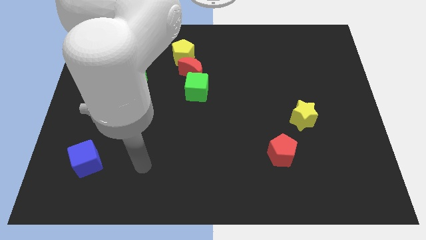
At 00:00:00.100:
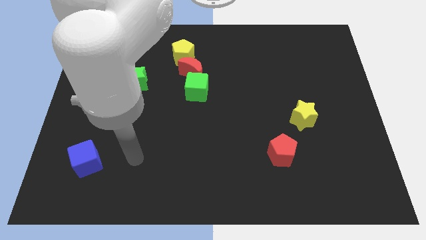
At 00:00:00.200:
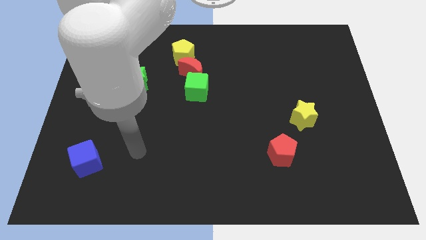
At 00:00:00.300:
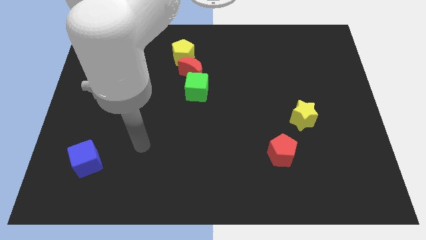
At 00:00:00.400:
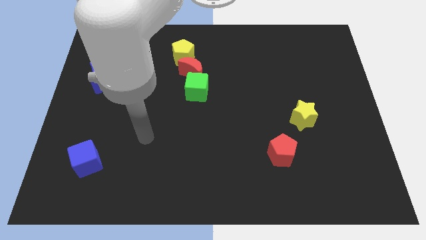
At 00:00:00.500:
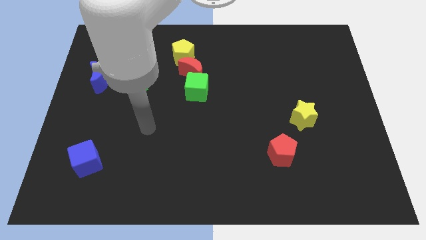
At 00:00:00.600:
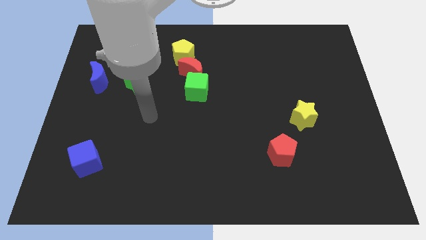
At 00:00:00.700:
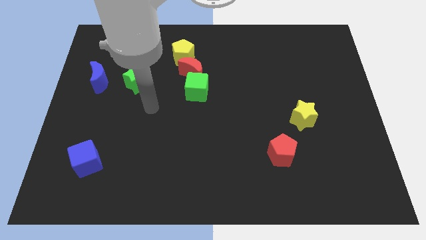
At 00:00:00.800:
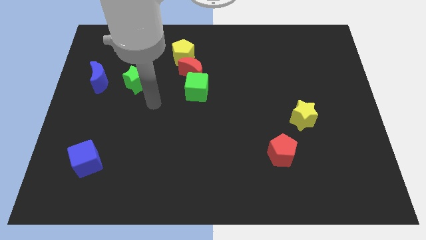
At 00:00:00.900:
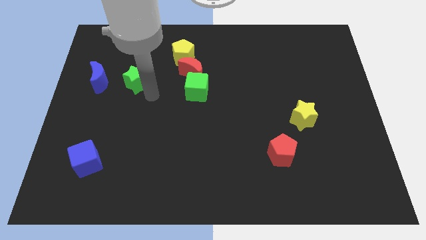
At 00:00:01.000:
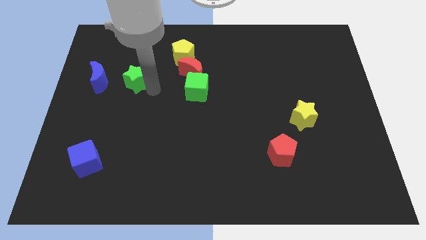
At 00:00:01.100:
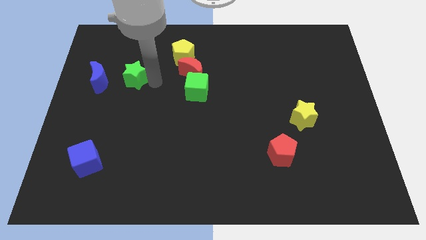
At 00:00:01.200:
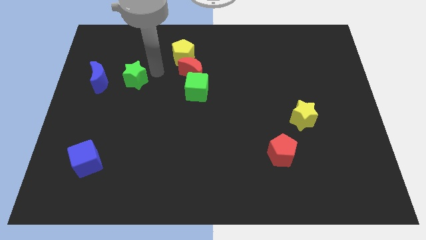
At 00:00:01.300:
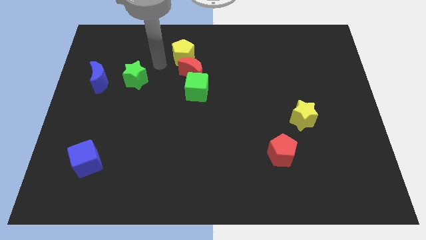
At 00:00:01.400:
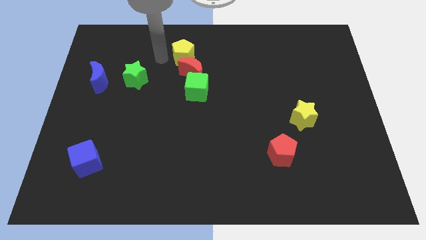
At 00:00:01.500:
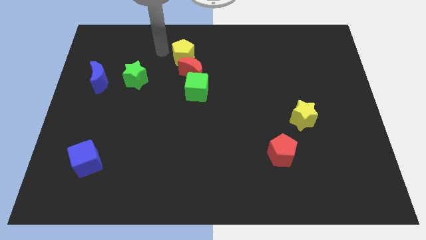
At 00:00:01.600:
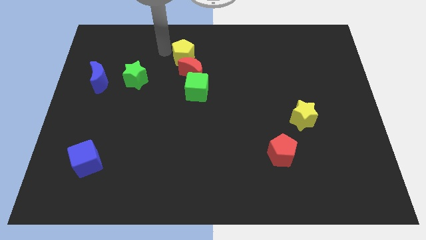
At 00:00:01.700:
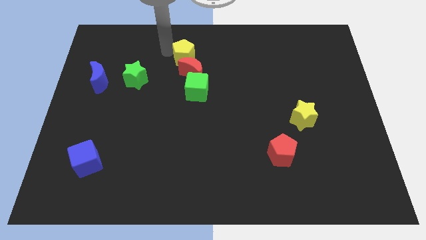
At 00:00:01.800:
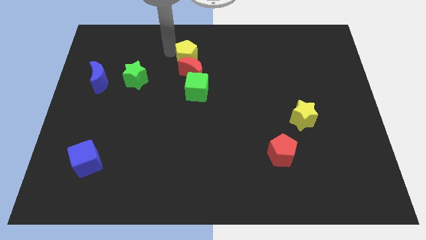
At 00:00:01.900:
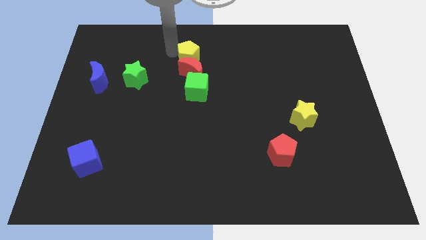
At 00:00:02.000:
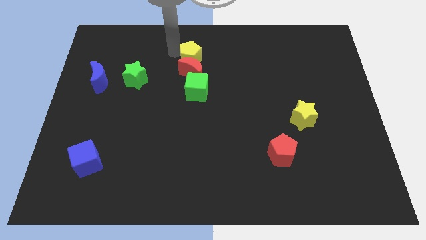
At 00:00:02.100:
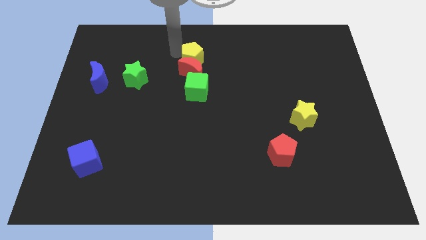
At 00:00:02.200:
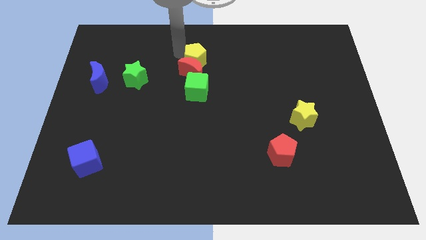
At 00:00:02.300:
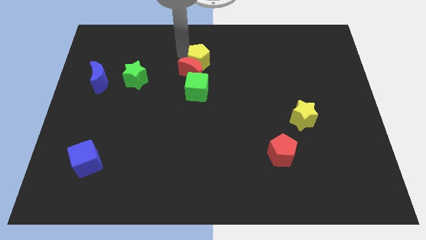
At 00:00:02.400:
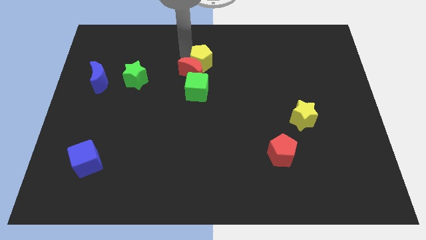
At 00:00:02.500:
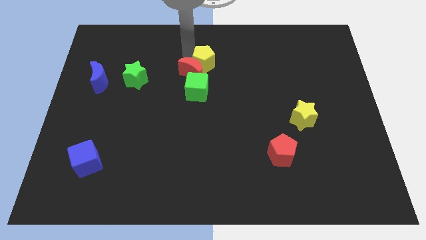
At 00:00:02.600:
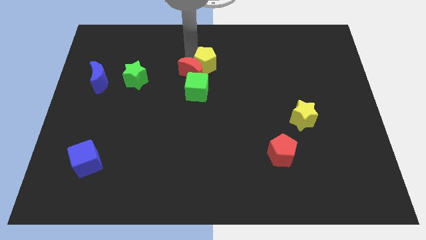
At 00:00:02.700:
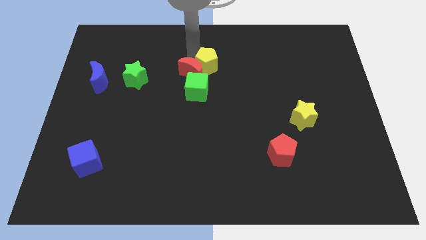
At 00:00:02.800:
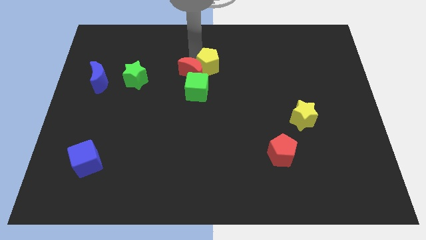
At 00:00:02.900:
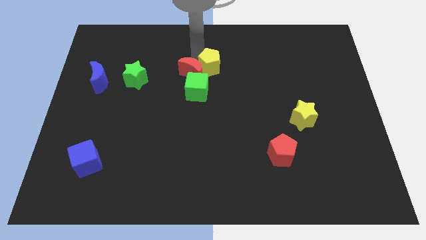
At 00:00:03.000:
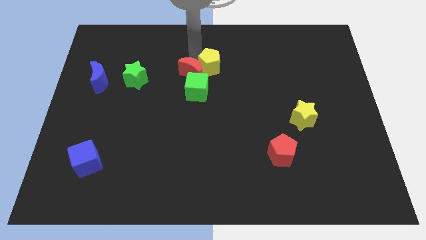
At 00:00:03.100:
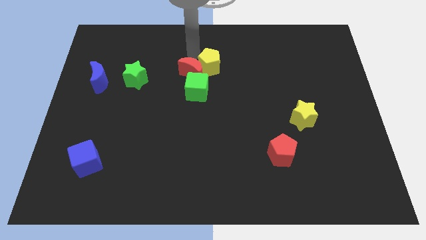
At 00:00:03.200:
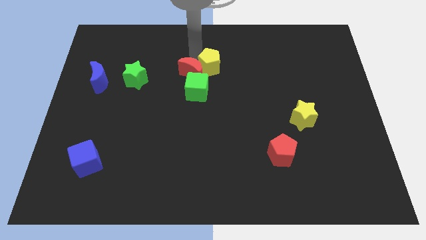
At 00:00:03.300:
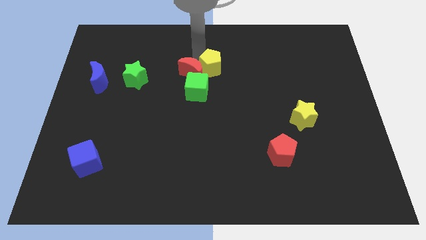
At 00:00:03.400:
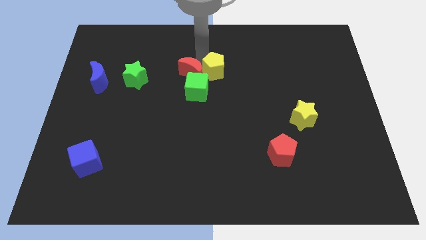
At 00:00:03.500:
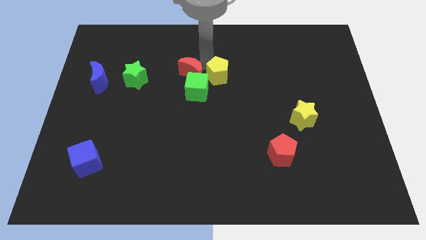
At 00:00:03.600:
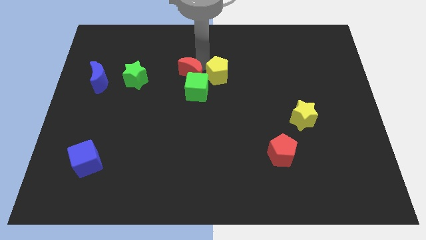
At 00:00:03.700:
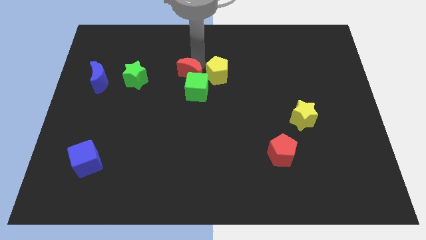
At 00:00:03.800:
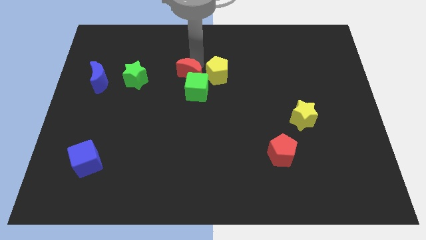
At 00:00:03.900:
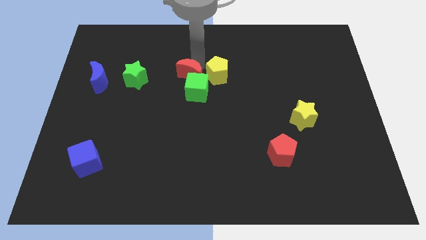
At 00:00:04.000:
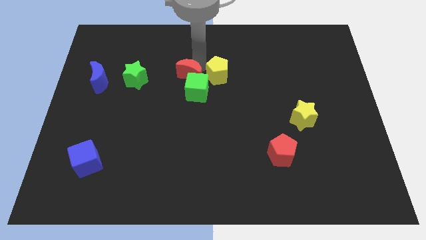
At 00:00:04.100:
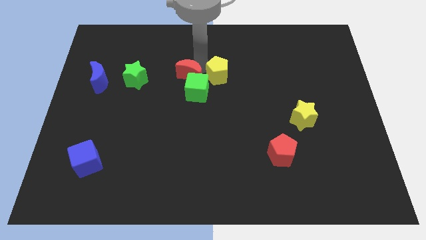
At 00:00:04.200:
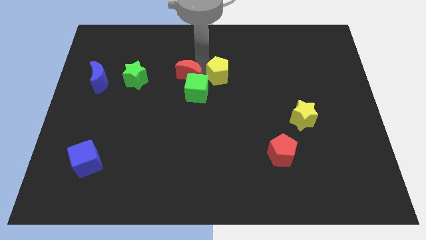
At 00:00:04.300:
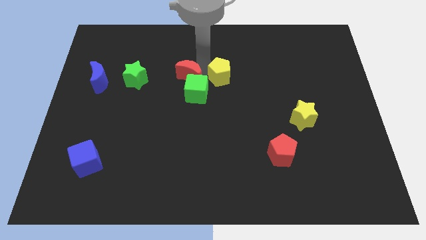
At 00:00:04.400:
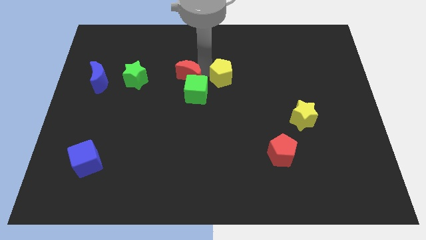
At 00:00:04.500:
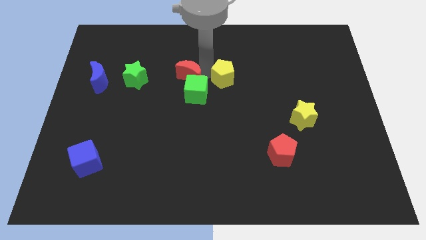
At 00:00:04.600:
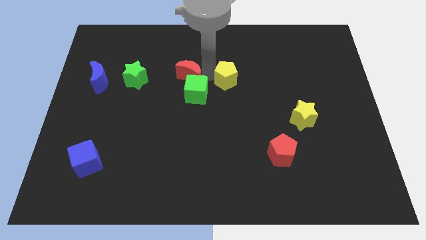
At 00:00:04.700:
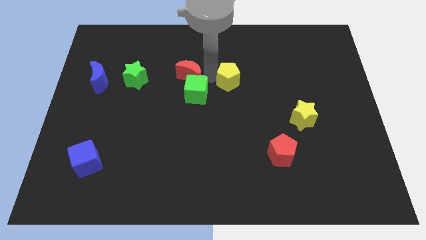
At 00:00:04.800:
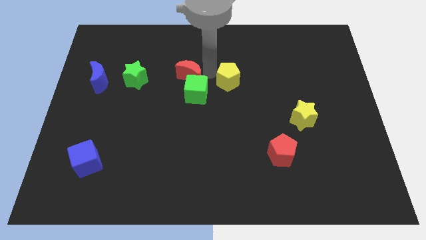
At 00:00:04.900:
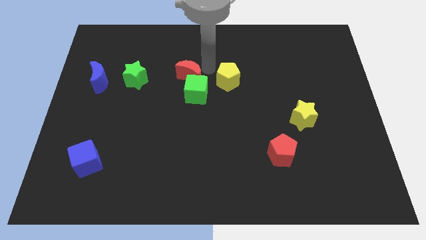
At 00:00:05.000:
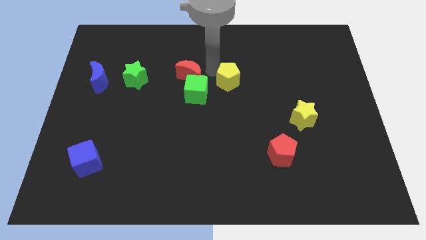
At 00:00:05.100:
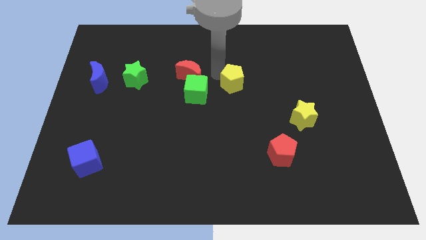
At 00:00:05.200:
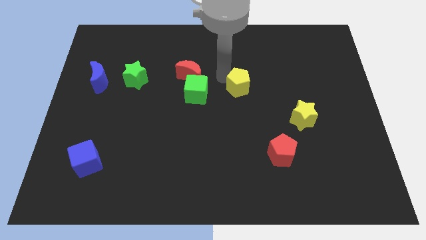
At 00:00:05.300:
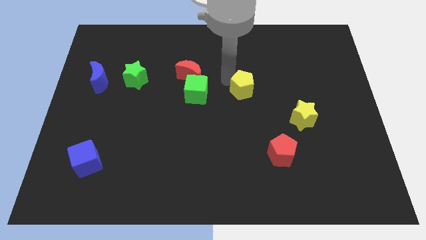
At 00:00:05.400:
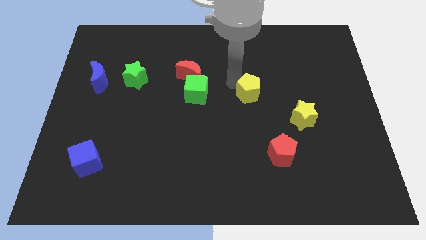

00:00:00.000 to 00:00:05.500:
slide the yellow pentagon diagonally downwards and to the right

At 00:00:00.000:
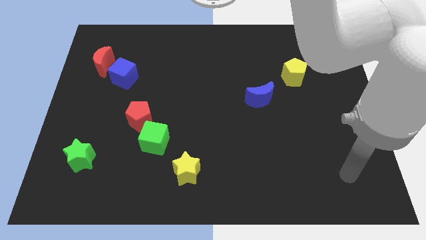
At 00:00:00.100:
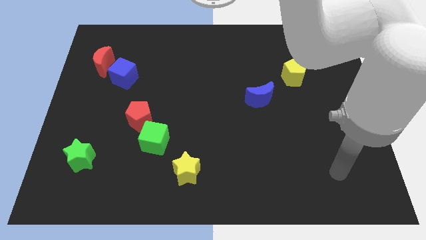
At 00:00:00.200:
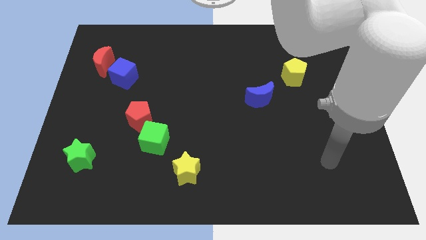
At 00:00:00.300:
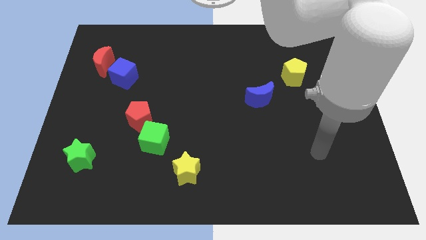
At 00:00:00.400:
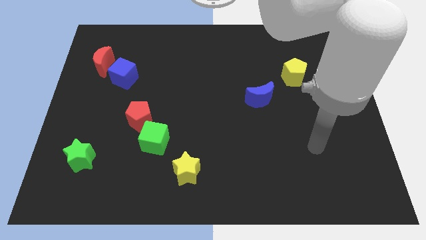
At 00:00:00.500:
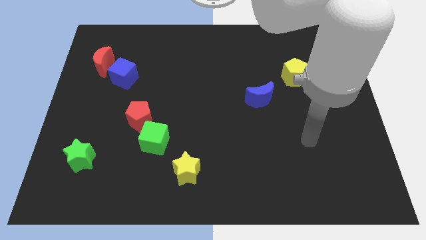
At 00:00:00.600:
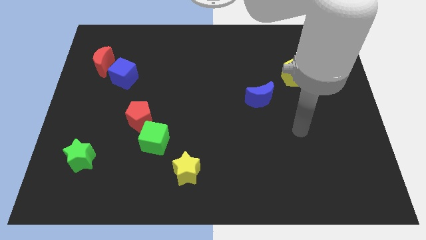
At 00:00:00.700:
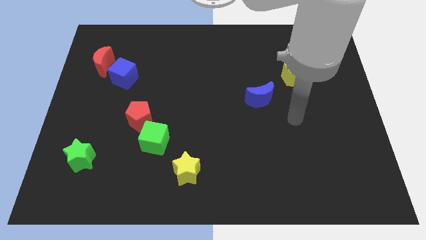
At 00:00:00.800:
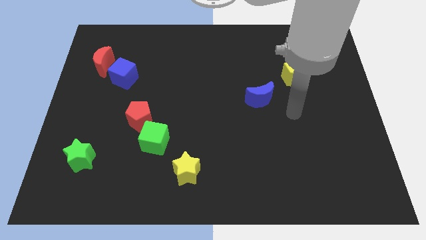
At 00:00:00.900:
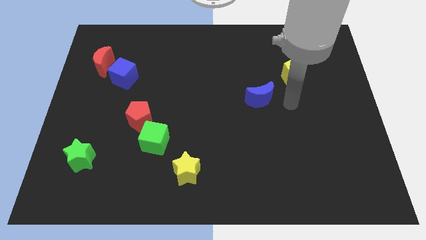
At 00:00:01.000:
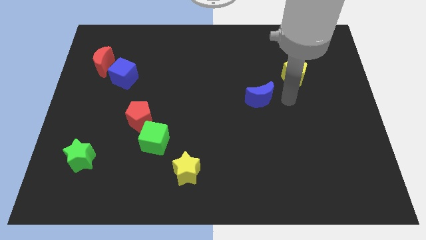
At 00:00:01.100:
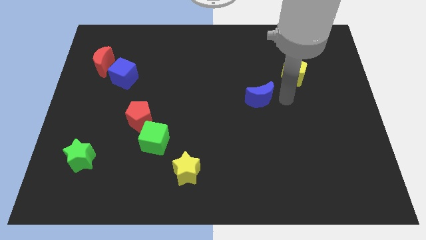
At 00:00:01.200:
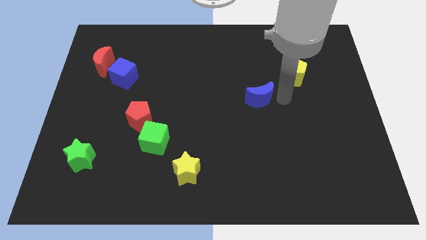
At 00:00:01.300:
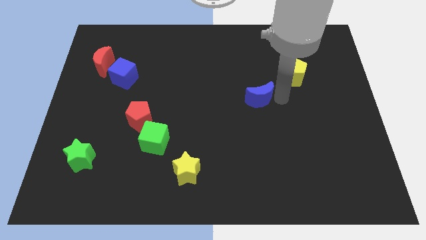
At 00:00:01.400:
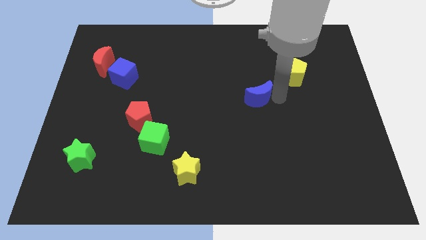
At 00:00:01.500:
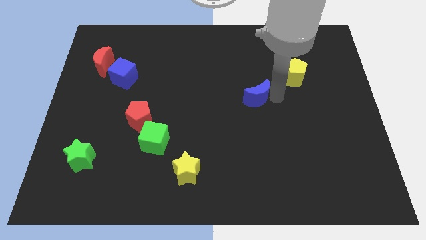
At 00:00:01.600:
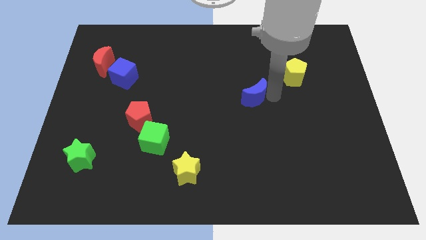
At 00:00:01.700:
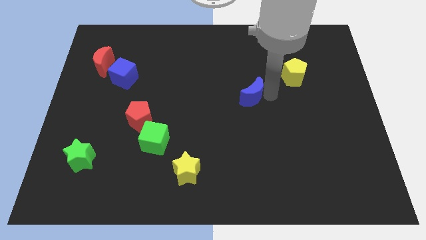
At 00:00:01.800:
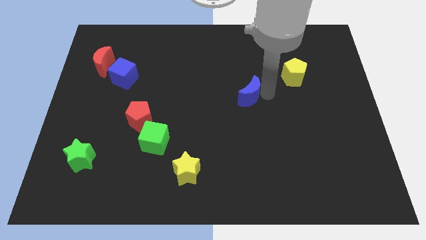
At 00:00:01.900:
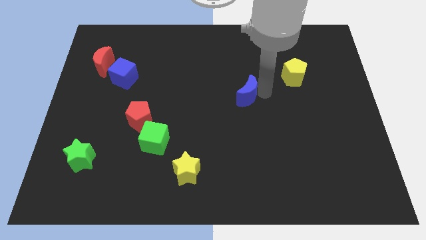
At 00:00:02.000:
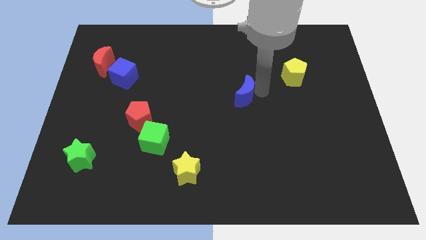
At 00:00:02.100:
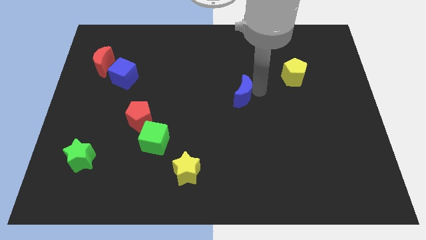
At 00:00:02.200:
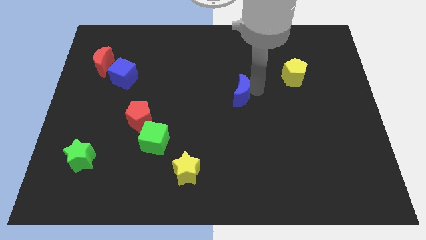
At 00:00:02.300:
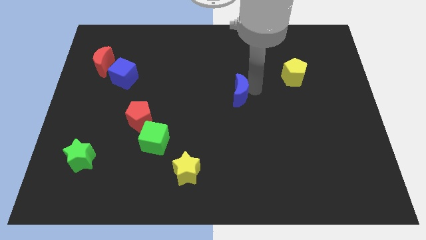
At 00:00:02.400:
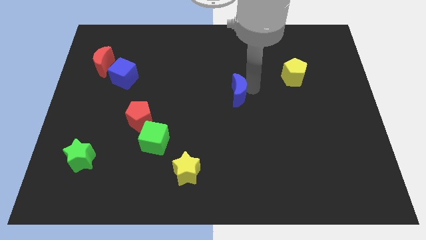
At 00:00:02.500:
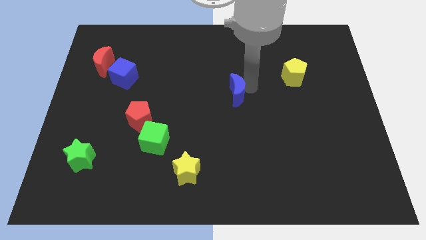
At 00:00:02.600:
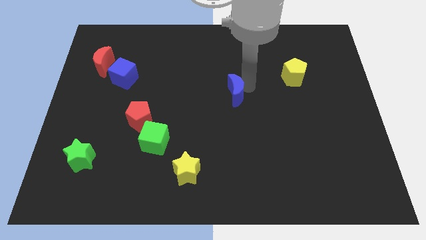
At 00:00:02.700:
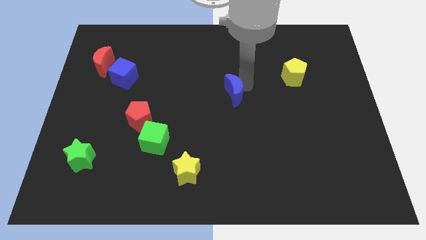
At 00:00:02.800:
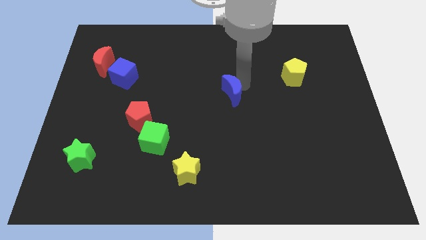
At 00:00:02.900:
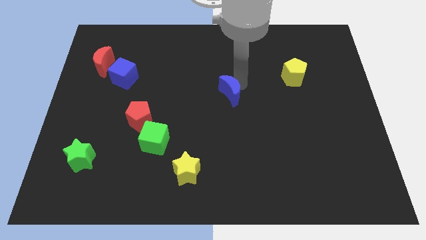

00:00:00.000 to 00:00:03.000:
slightly move the blue moon to the left
